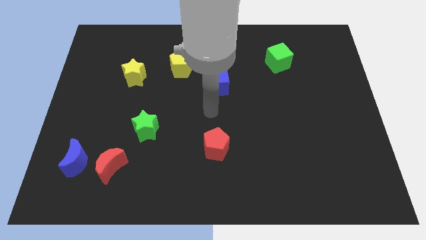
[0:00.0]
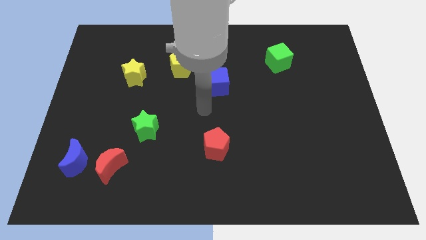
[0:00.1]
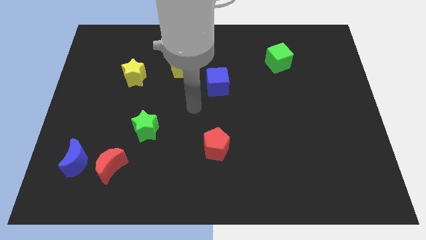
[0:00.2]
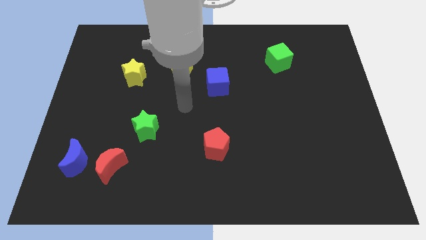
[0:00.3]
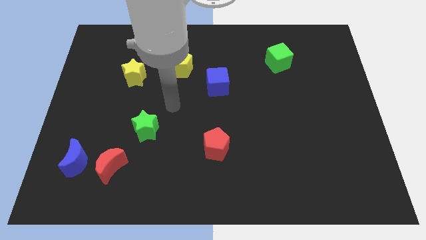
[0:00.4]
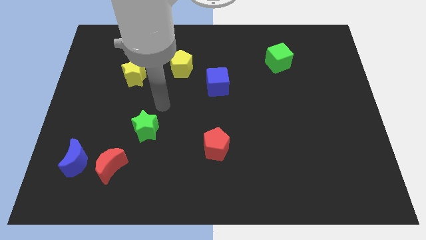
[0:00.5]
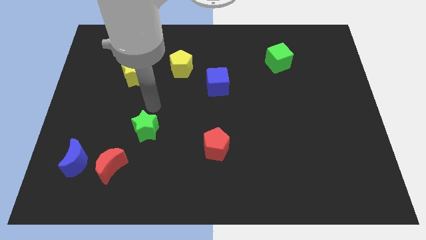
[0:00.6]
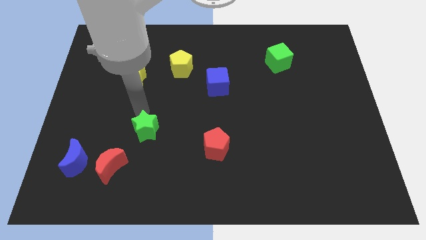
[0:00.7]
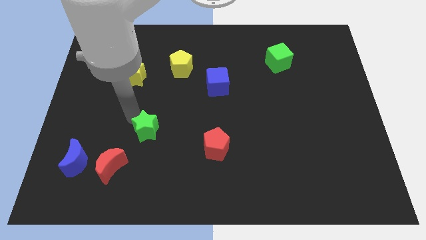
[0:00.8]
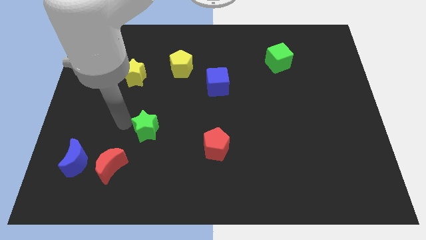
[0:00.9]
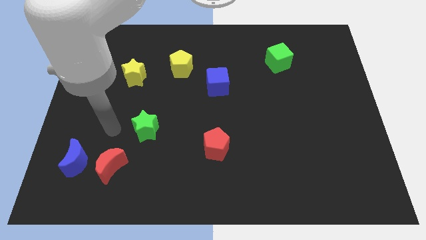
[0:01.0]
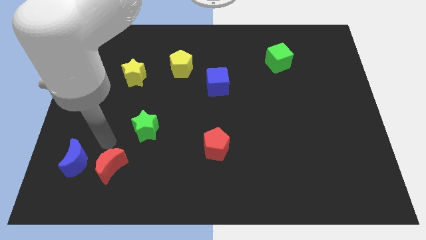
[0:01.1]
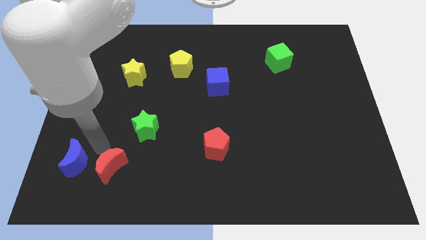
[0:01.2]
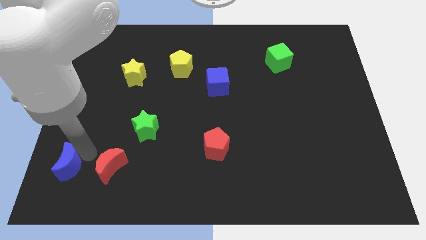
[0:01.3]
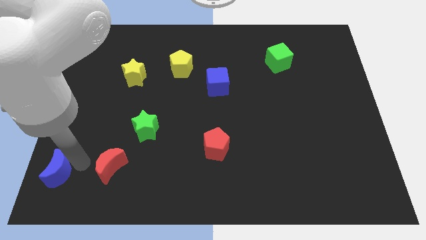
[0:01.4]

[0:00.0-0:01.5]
separate the red moon from the blue moon

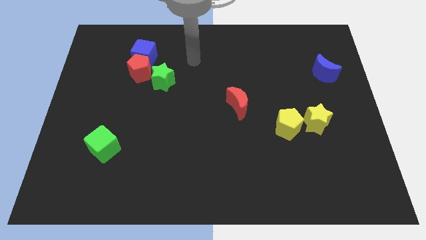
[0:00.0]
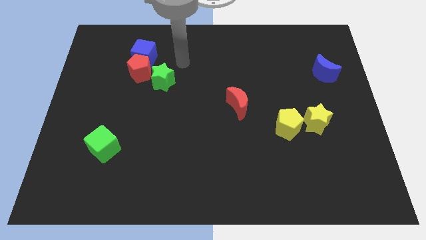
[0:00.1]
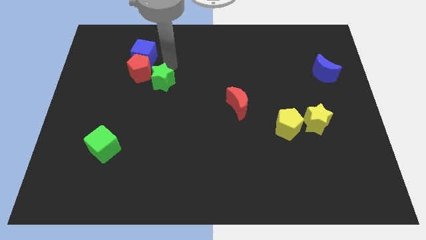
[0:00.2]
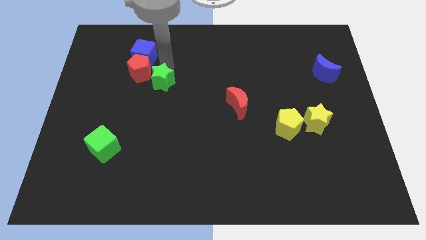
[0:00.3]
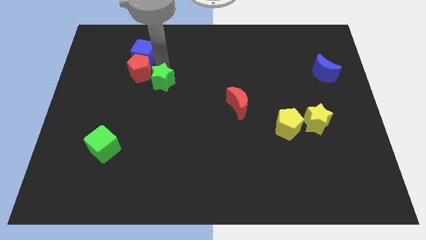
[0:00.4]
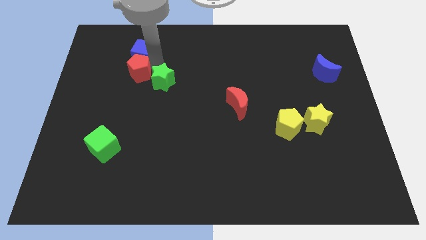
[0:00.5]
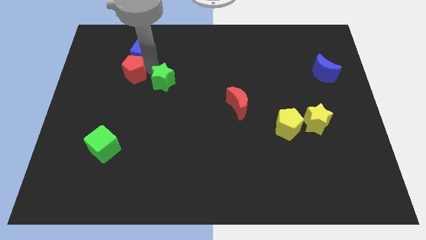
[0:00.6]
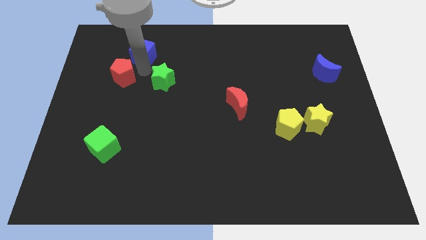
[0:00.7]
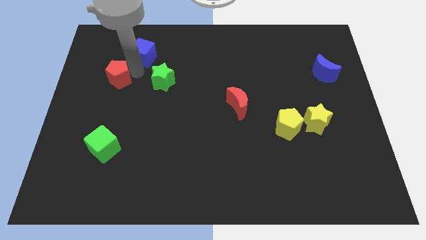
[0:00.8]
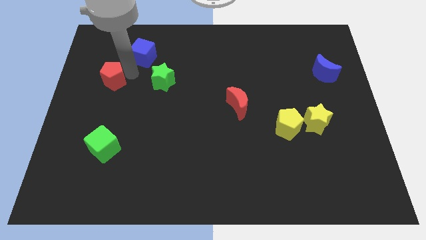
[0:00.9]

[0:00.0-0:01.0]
move the red pentagon away from the blue cube and green star

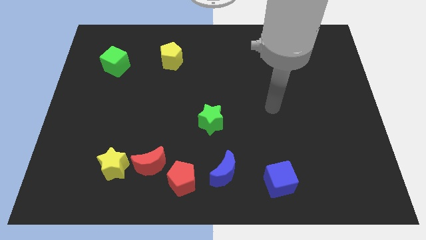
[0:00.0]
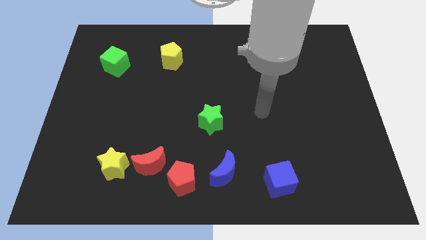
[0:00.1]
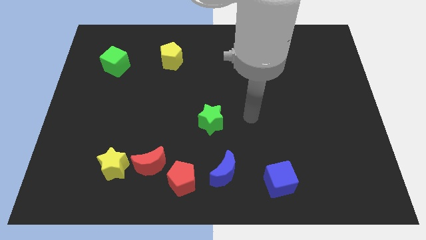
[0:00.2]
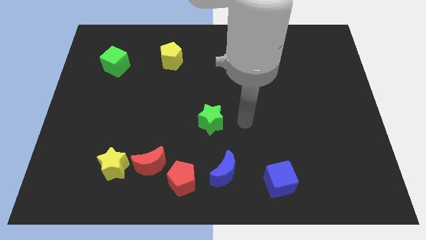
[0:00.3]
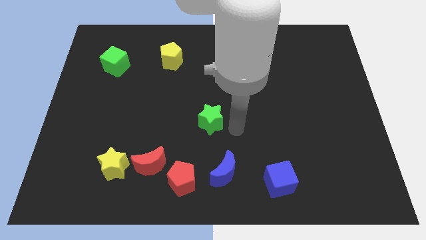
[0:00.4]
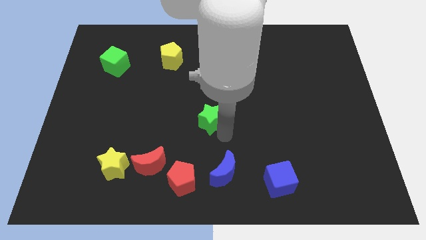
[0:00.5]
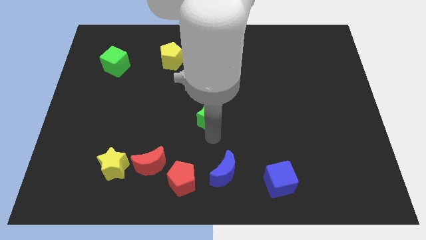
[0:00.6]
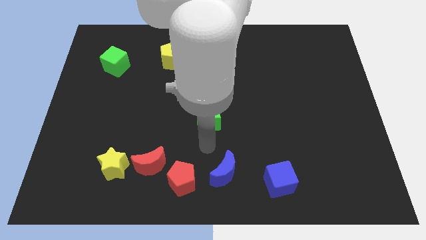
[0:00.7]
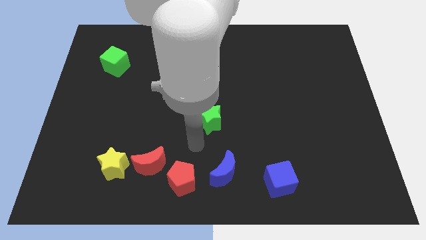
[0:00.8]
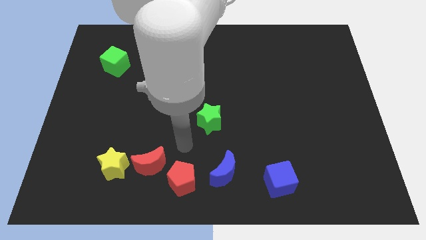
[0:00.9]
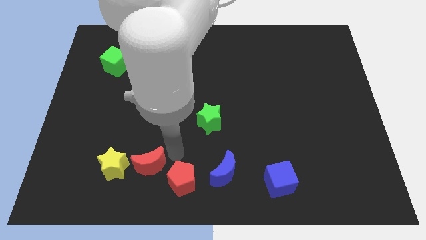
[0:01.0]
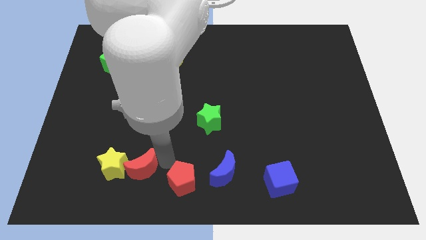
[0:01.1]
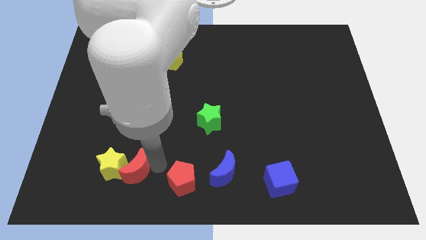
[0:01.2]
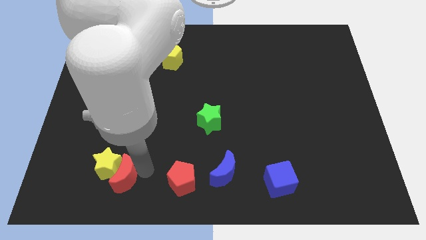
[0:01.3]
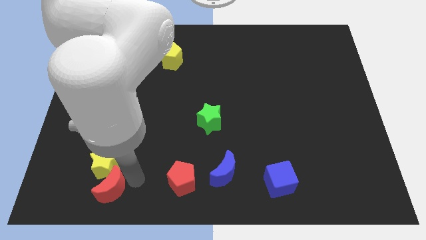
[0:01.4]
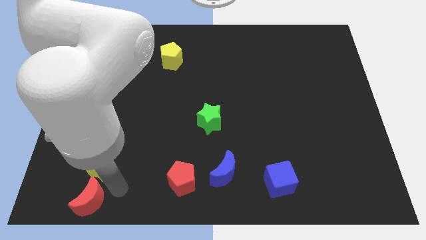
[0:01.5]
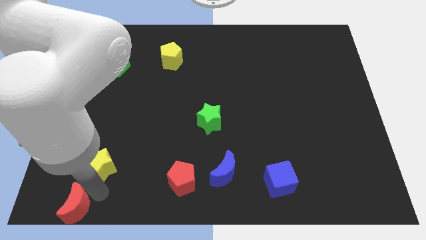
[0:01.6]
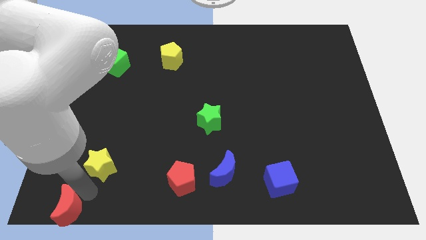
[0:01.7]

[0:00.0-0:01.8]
move the yellow star away from the red moon

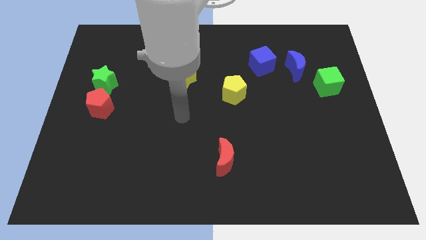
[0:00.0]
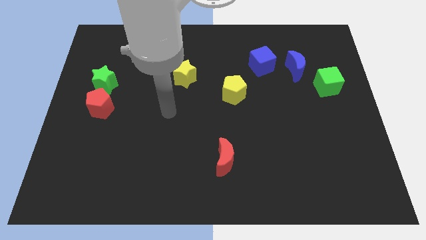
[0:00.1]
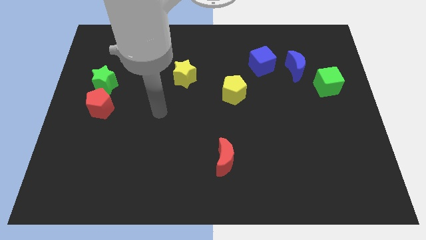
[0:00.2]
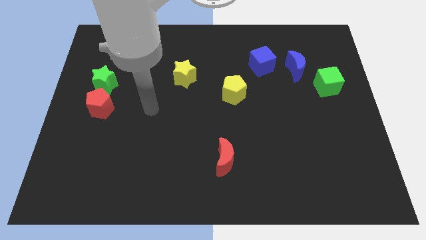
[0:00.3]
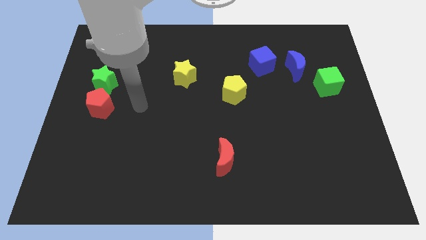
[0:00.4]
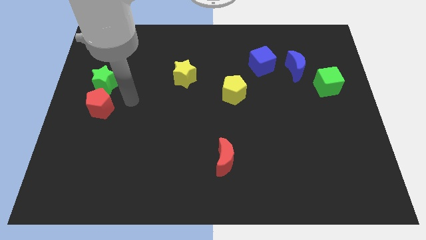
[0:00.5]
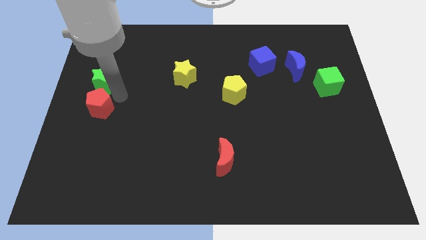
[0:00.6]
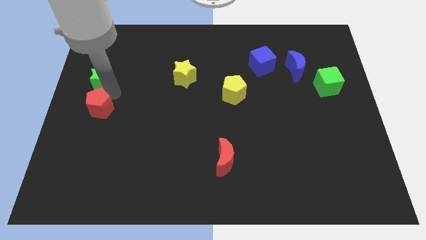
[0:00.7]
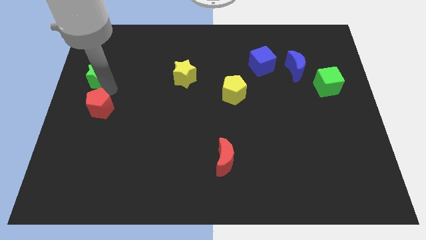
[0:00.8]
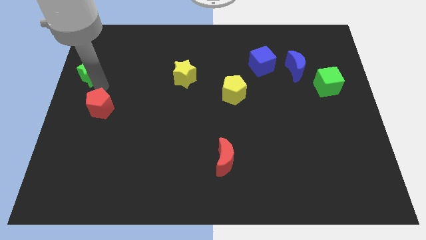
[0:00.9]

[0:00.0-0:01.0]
pull the red pentagon apart from the green star

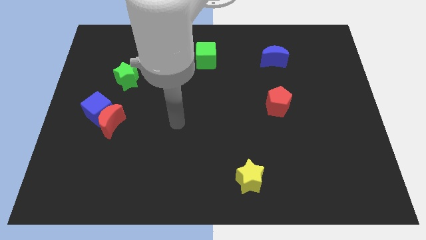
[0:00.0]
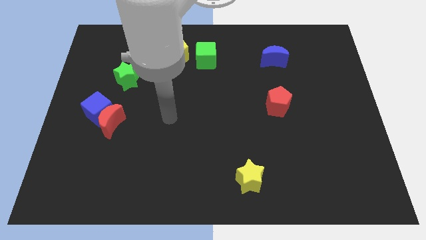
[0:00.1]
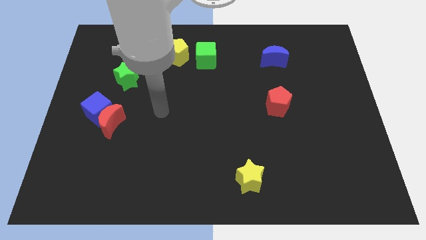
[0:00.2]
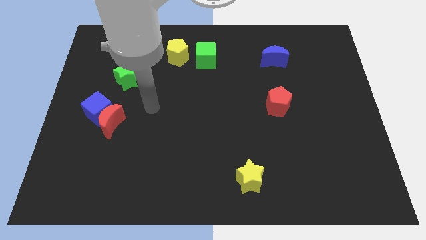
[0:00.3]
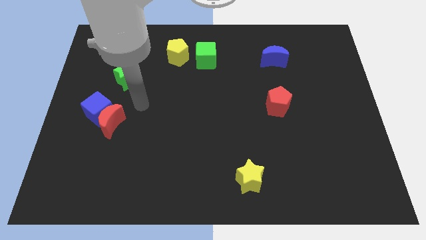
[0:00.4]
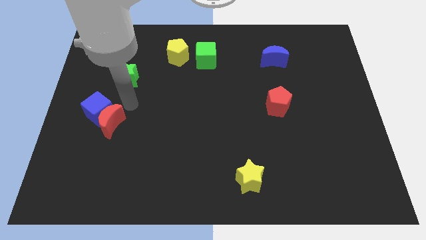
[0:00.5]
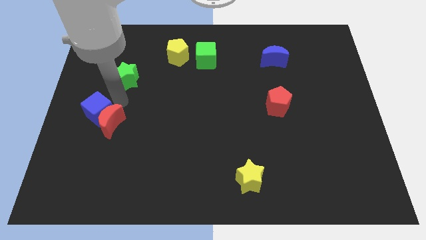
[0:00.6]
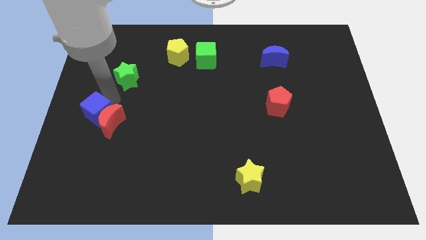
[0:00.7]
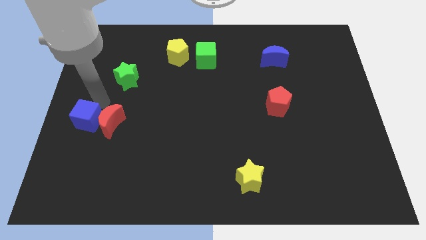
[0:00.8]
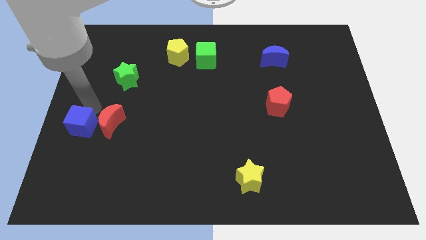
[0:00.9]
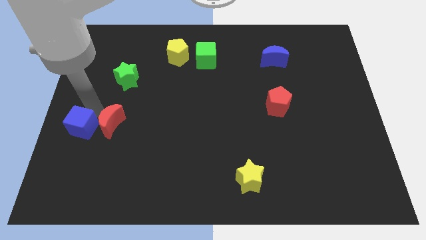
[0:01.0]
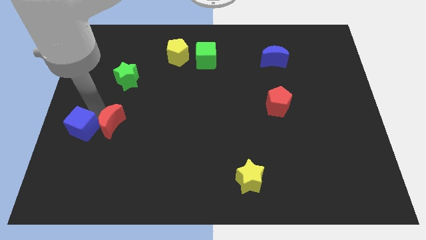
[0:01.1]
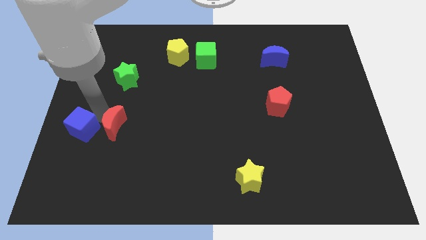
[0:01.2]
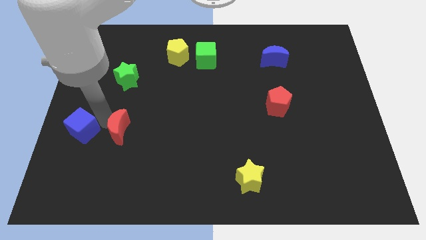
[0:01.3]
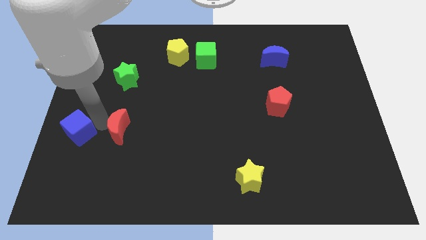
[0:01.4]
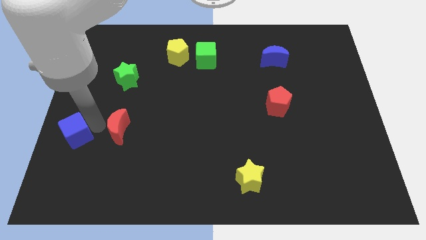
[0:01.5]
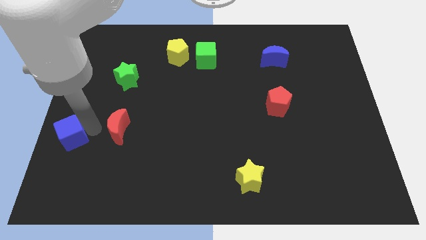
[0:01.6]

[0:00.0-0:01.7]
move the red moon away from the blue cube

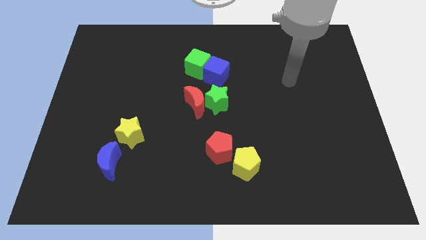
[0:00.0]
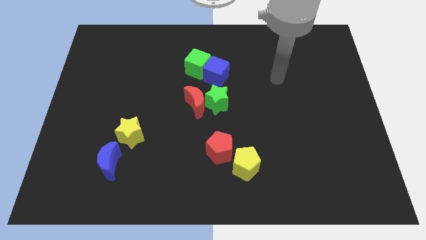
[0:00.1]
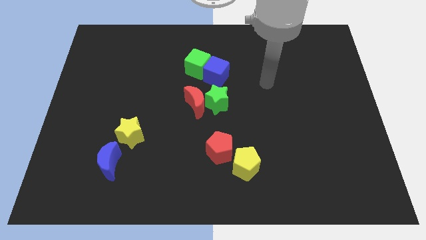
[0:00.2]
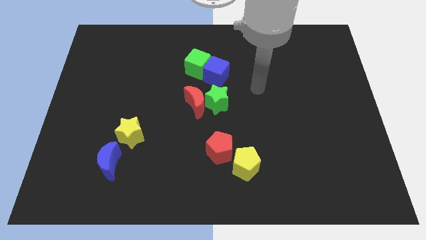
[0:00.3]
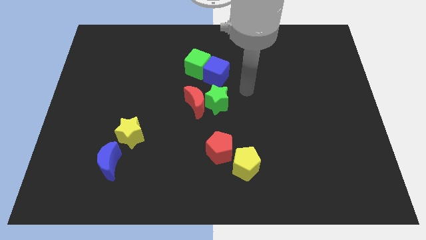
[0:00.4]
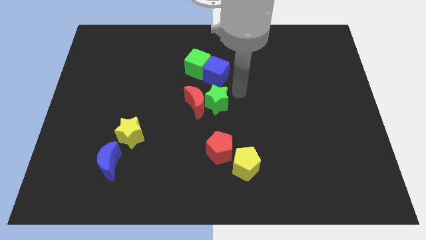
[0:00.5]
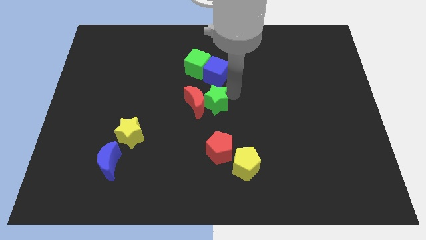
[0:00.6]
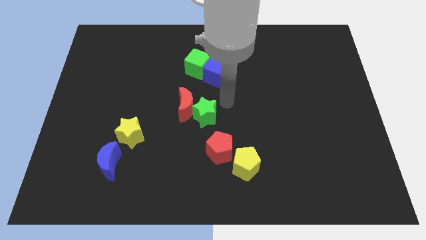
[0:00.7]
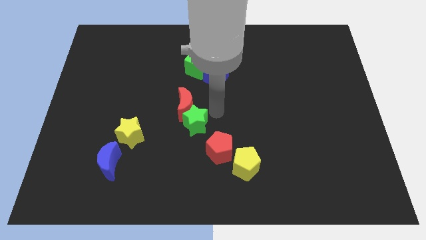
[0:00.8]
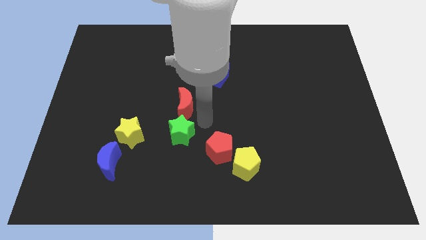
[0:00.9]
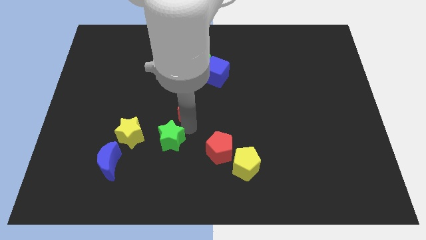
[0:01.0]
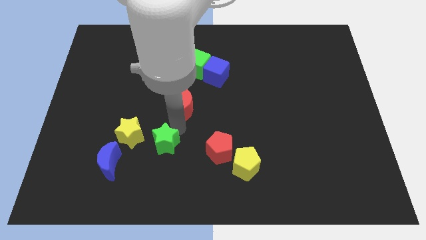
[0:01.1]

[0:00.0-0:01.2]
pull the red moon apart from the green star

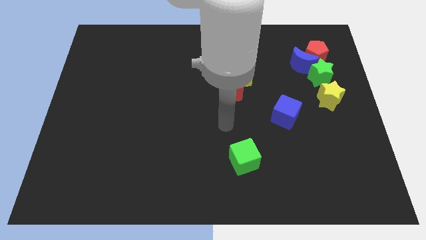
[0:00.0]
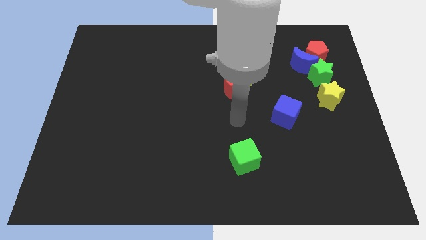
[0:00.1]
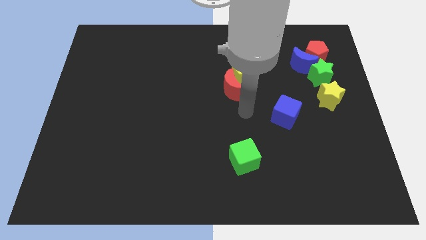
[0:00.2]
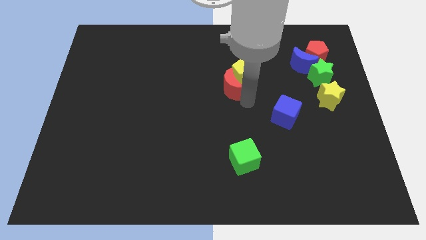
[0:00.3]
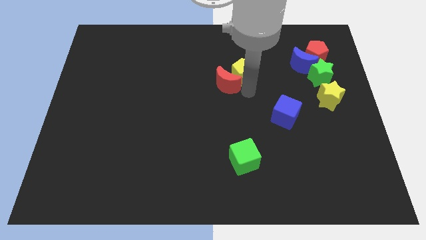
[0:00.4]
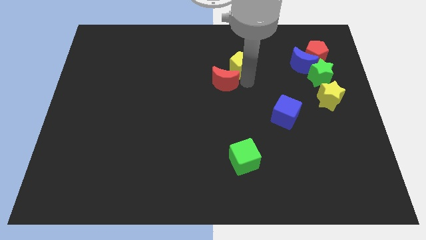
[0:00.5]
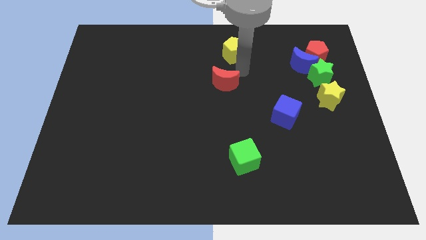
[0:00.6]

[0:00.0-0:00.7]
separate the red moon from the yellow pentagon

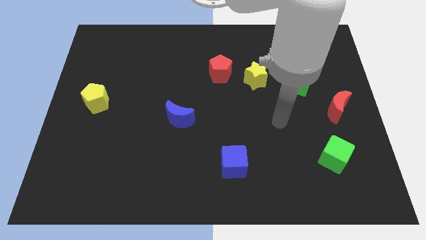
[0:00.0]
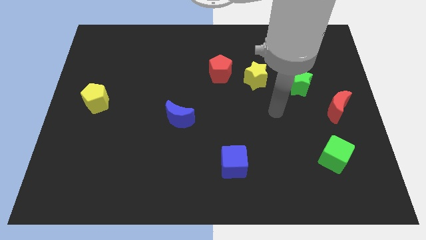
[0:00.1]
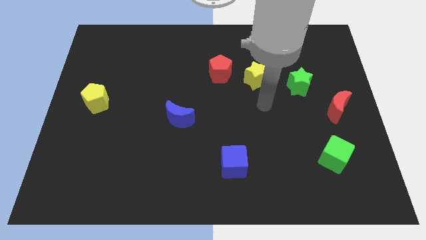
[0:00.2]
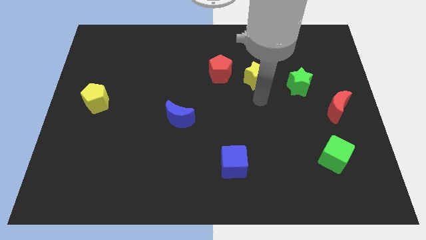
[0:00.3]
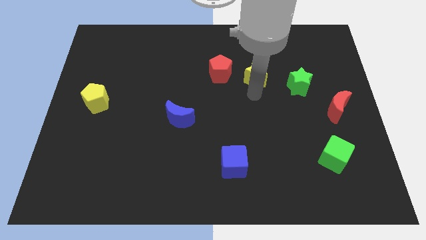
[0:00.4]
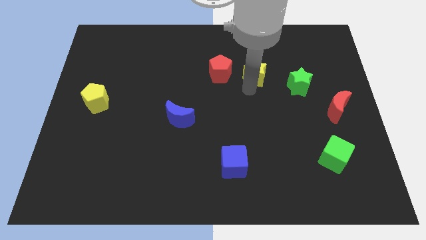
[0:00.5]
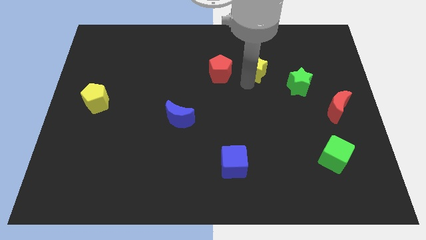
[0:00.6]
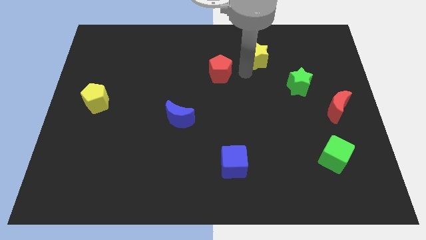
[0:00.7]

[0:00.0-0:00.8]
separate the red pentagon from the yellow star
